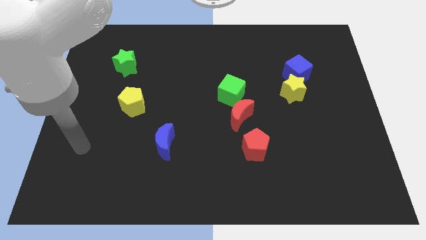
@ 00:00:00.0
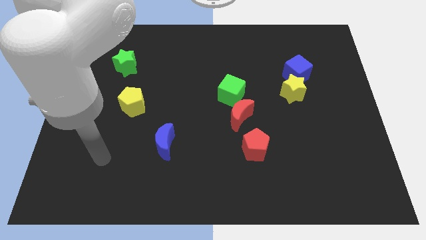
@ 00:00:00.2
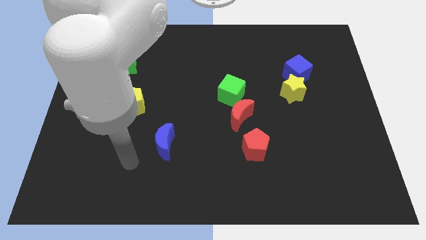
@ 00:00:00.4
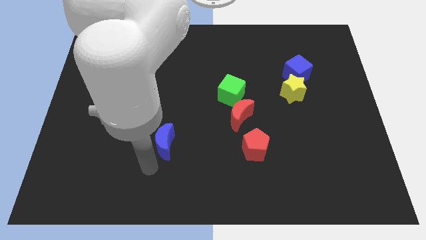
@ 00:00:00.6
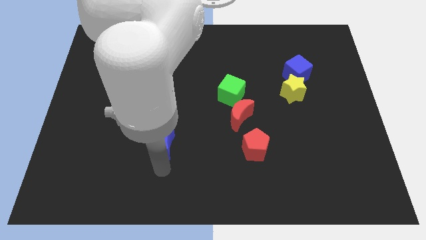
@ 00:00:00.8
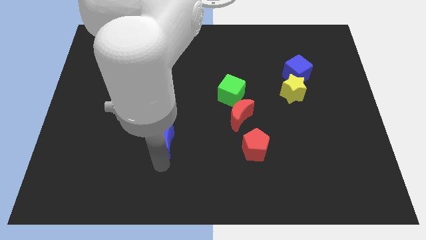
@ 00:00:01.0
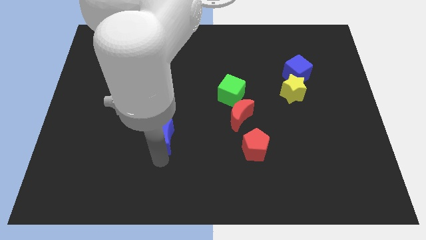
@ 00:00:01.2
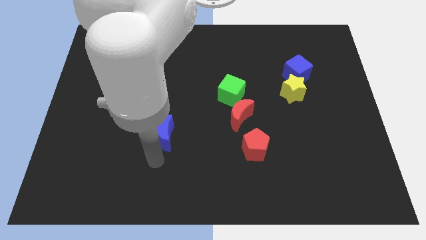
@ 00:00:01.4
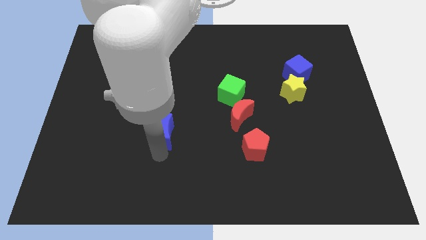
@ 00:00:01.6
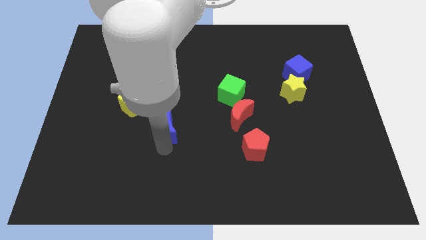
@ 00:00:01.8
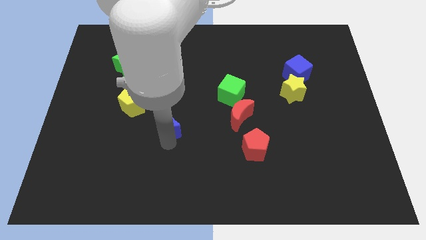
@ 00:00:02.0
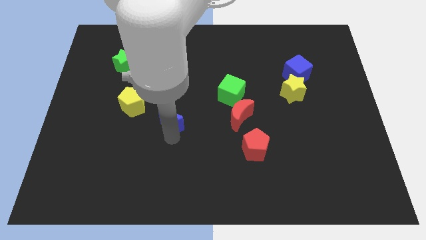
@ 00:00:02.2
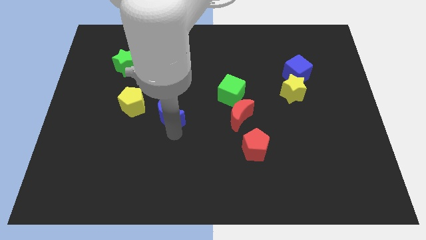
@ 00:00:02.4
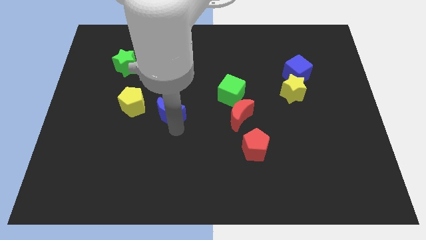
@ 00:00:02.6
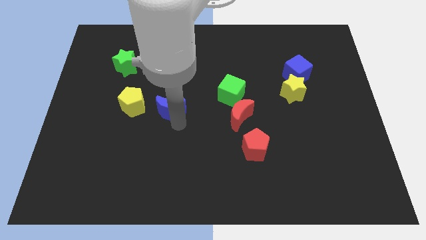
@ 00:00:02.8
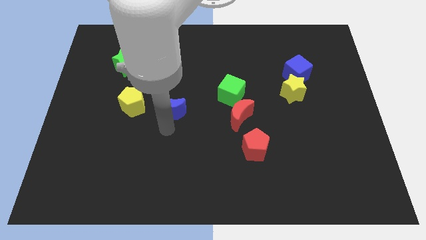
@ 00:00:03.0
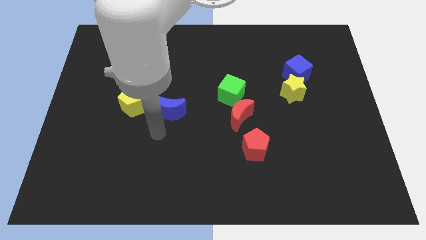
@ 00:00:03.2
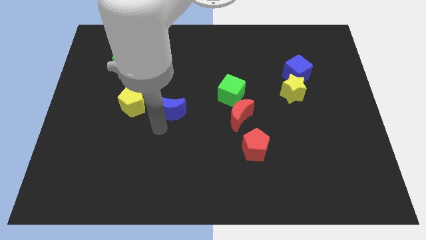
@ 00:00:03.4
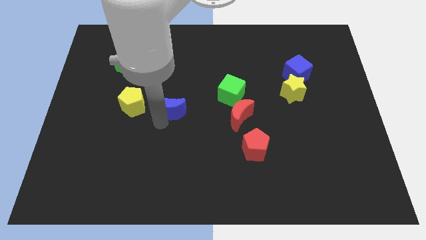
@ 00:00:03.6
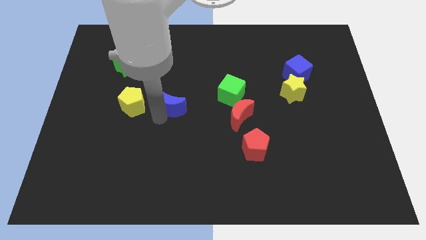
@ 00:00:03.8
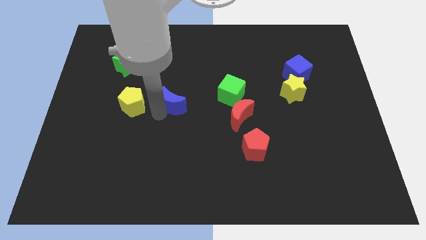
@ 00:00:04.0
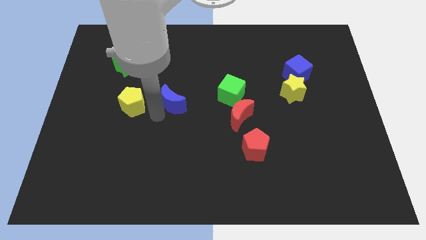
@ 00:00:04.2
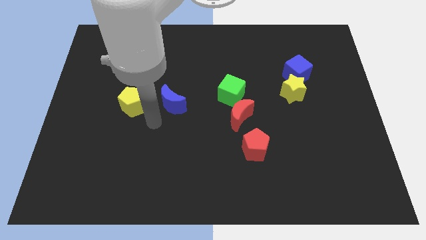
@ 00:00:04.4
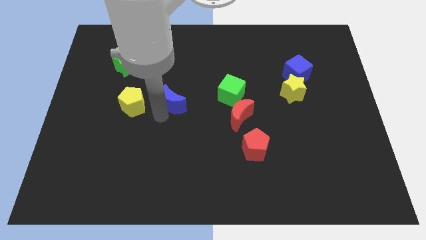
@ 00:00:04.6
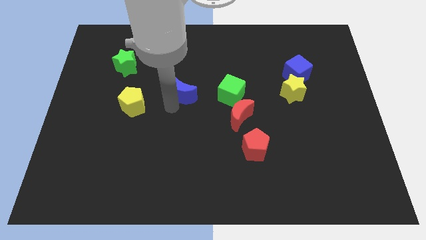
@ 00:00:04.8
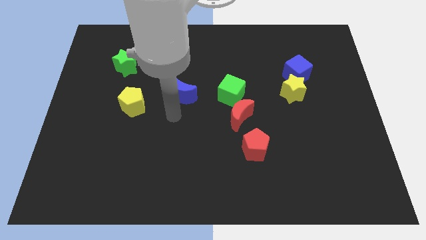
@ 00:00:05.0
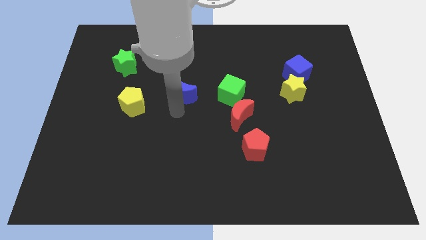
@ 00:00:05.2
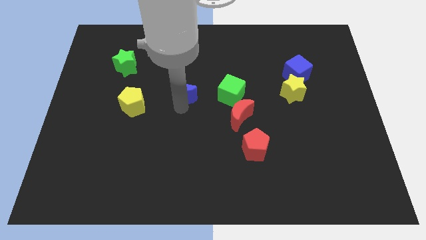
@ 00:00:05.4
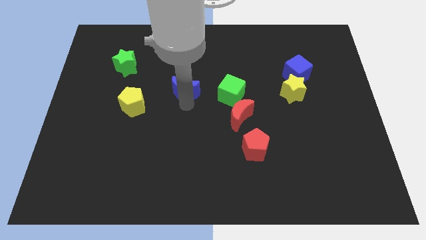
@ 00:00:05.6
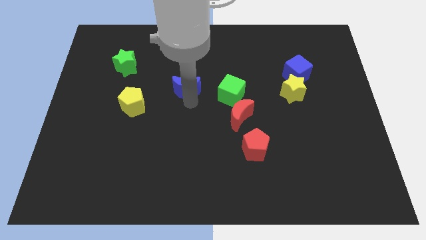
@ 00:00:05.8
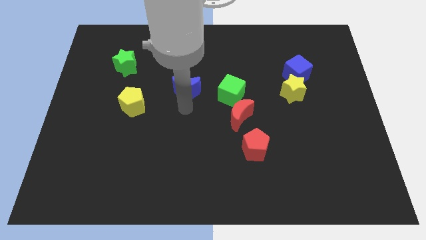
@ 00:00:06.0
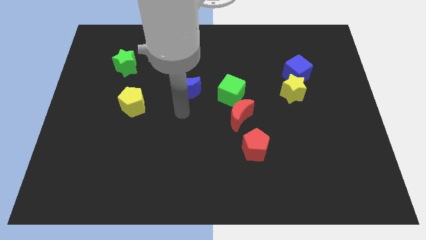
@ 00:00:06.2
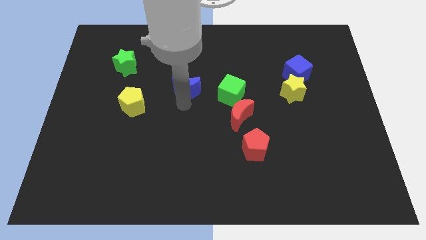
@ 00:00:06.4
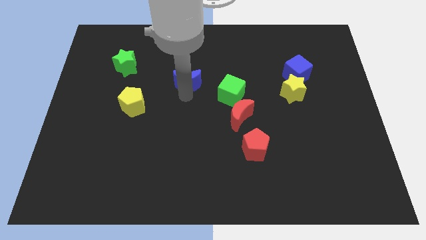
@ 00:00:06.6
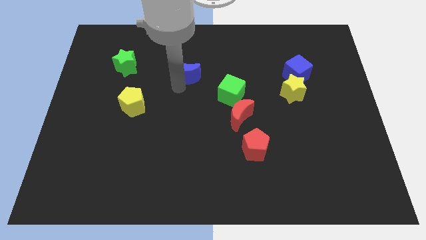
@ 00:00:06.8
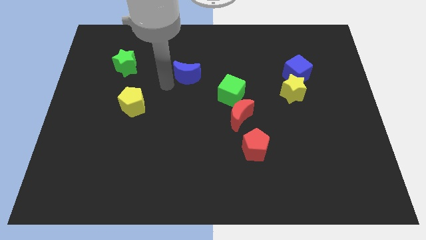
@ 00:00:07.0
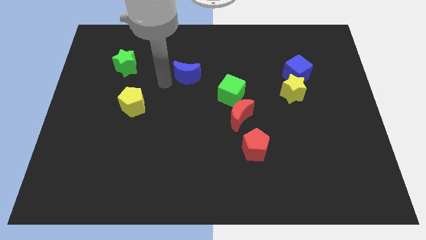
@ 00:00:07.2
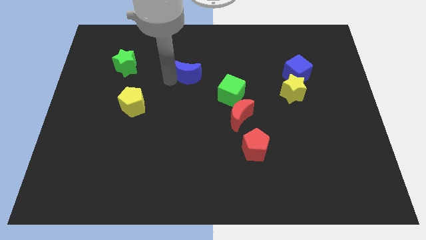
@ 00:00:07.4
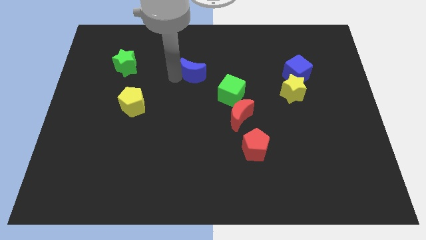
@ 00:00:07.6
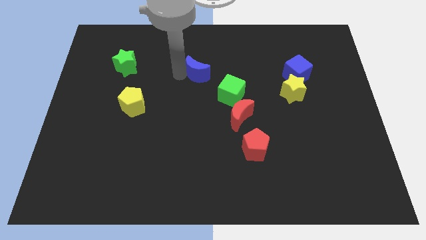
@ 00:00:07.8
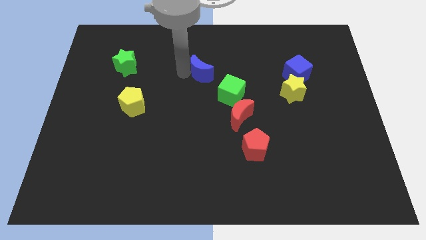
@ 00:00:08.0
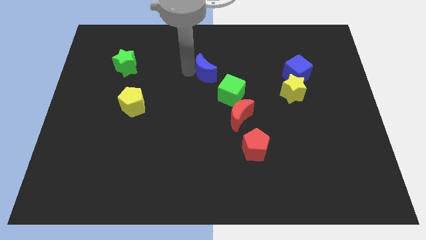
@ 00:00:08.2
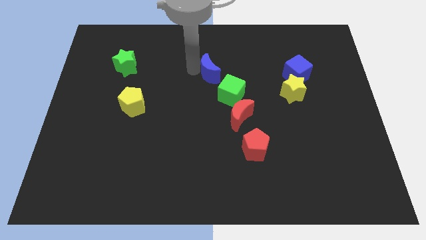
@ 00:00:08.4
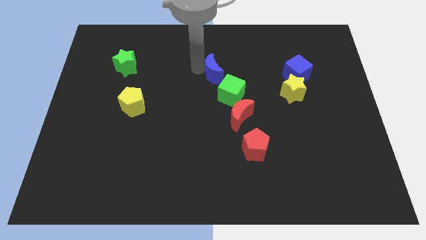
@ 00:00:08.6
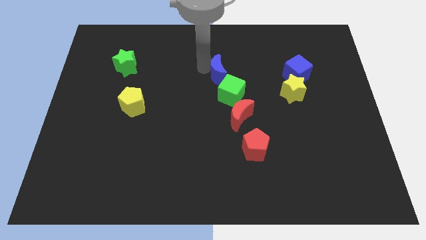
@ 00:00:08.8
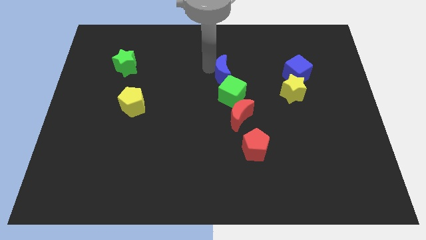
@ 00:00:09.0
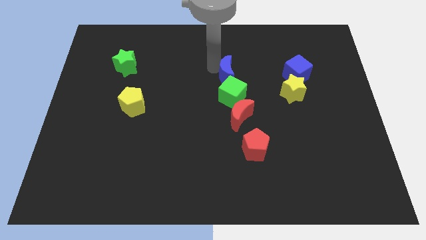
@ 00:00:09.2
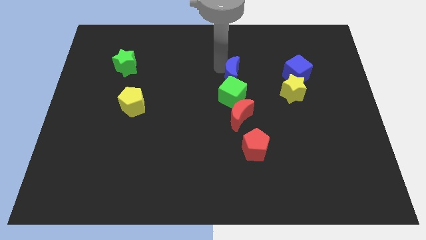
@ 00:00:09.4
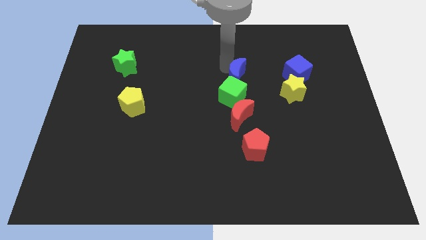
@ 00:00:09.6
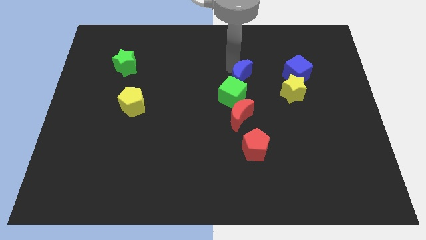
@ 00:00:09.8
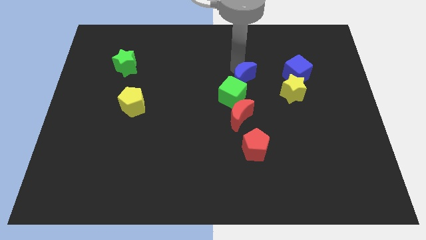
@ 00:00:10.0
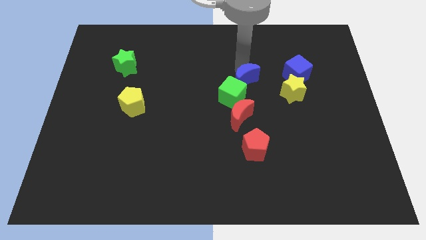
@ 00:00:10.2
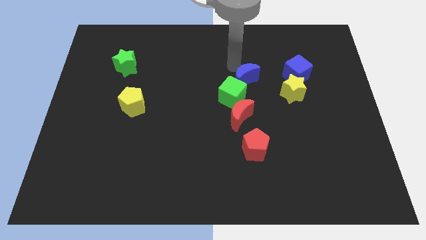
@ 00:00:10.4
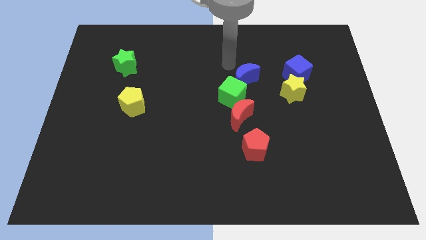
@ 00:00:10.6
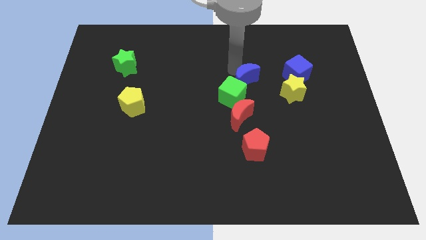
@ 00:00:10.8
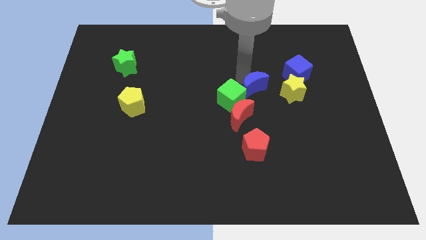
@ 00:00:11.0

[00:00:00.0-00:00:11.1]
push the blue moon to the right side of the green cube

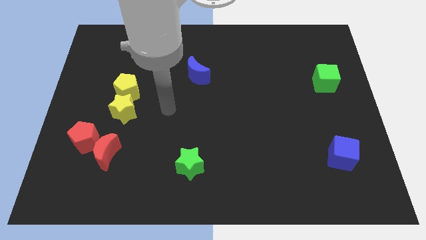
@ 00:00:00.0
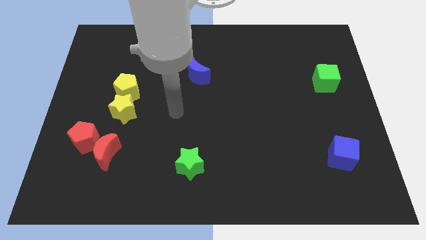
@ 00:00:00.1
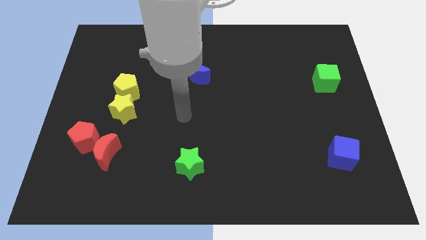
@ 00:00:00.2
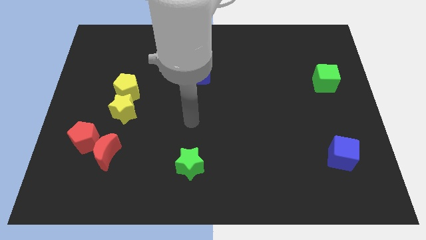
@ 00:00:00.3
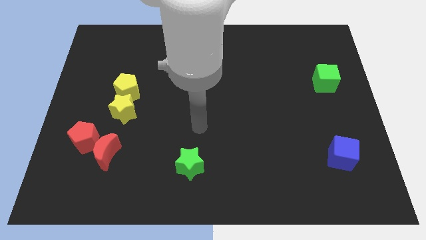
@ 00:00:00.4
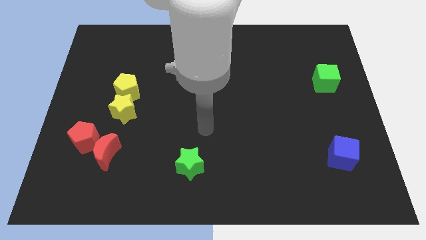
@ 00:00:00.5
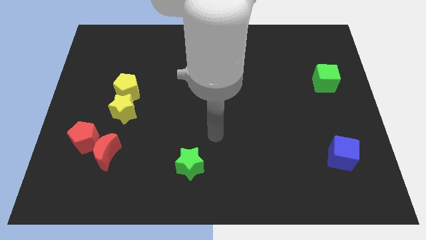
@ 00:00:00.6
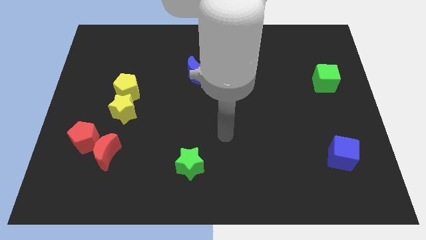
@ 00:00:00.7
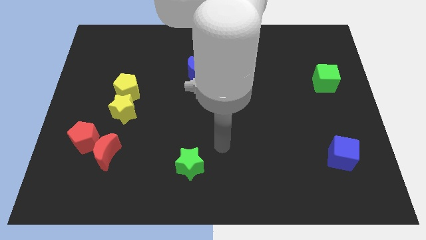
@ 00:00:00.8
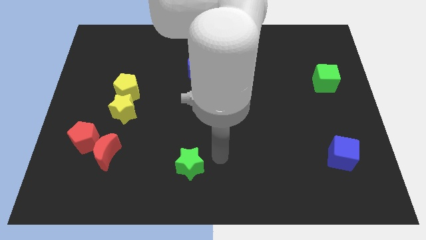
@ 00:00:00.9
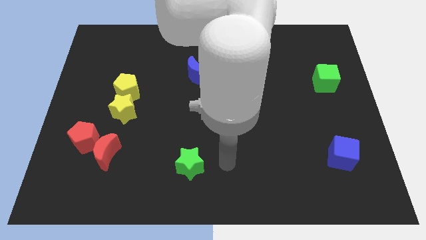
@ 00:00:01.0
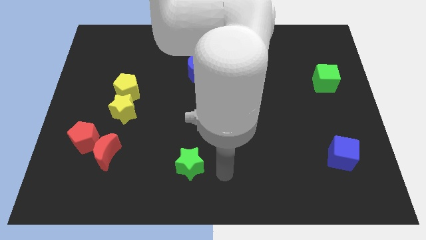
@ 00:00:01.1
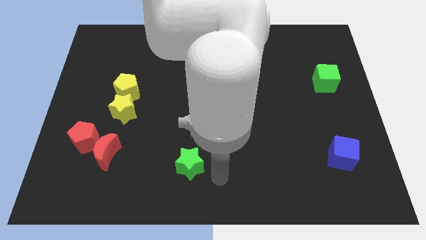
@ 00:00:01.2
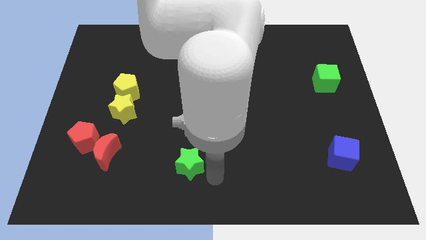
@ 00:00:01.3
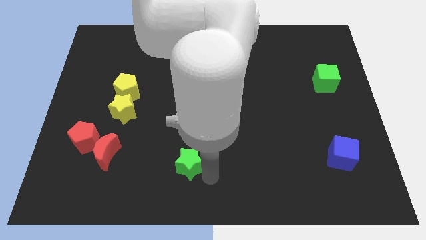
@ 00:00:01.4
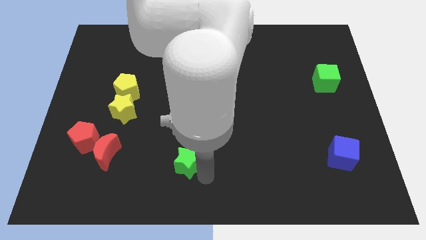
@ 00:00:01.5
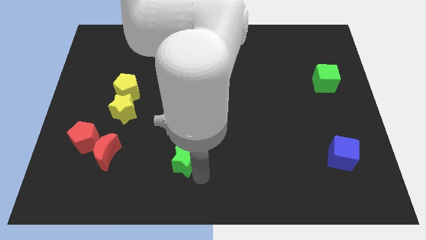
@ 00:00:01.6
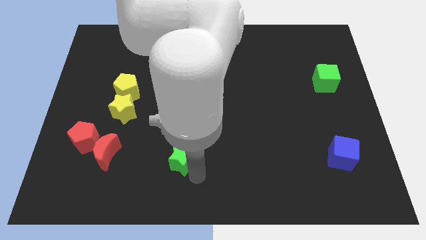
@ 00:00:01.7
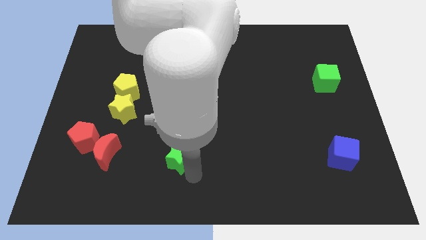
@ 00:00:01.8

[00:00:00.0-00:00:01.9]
push the green star to the right of the red moon
